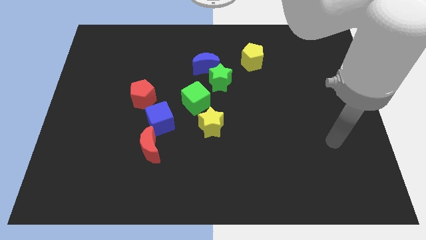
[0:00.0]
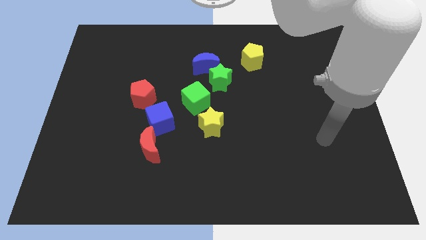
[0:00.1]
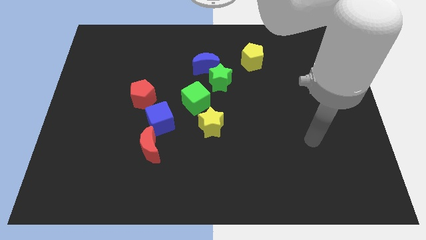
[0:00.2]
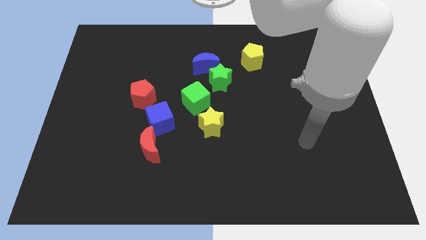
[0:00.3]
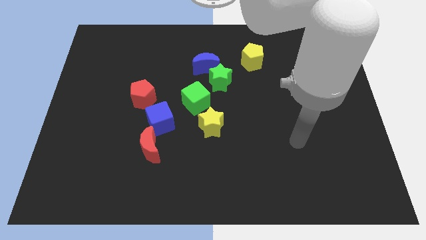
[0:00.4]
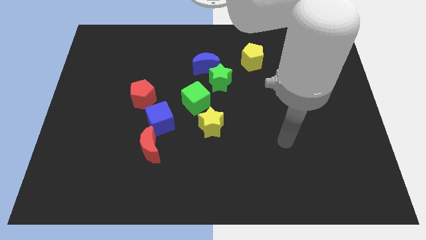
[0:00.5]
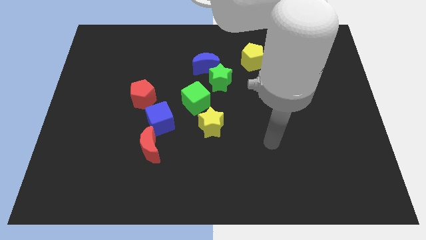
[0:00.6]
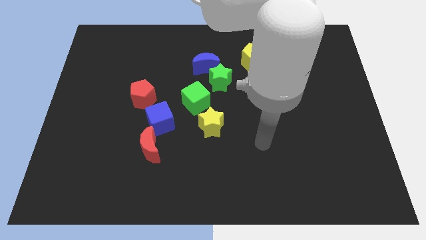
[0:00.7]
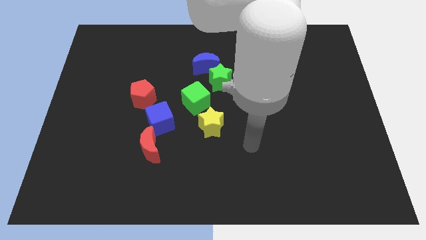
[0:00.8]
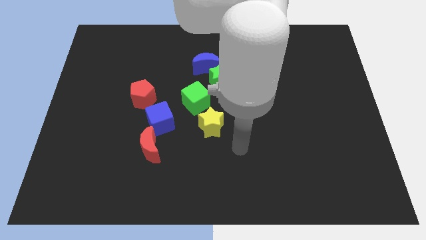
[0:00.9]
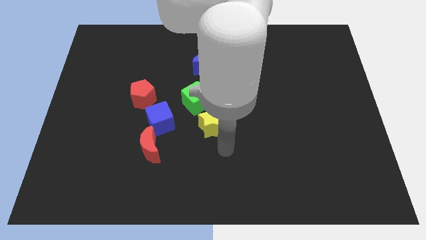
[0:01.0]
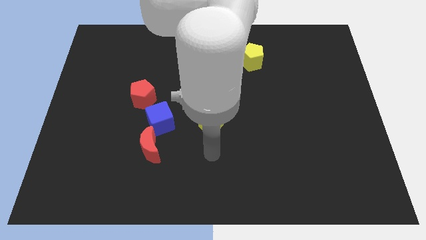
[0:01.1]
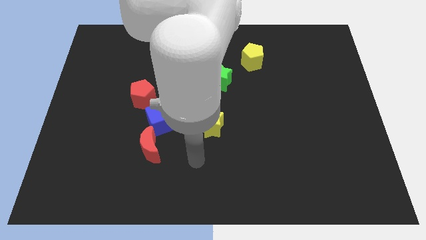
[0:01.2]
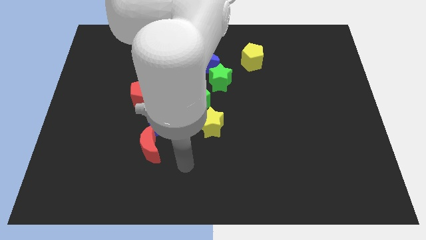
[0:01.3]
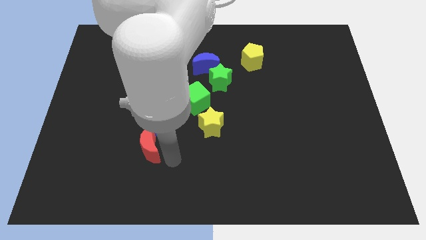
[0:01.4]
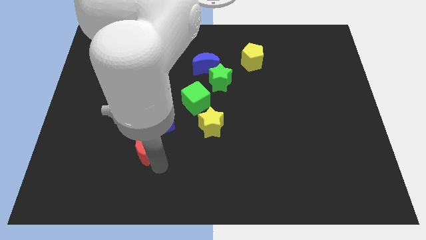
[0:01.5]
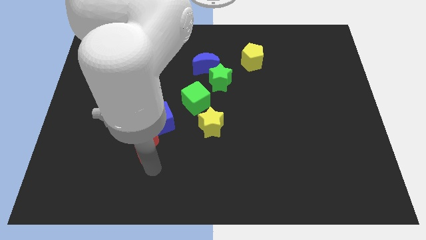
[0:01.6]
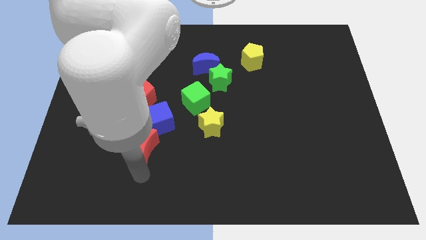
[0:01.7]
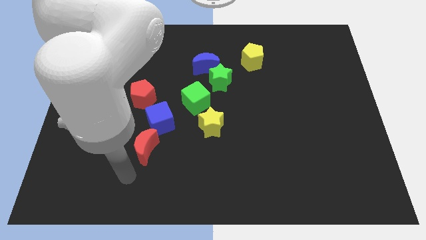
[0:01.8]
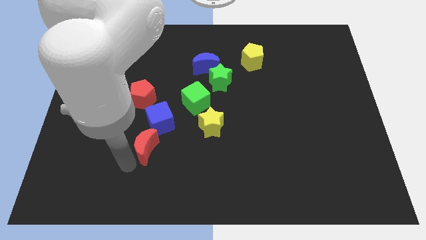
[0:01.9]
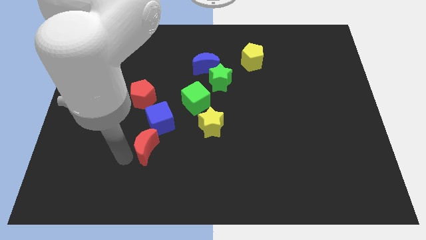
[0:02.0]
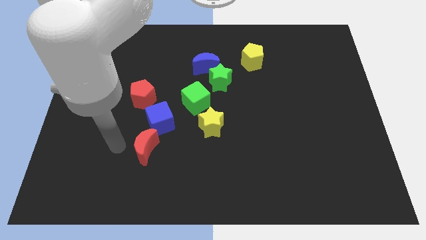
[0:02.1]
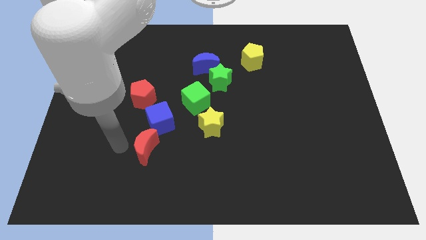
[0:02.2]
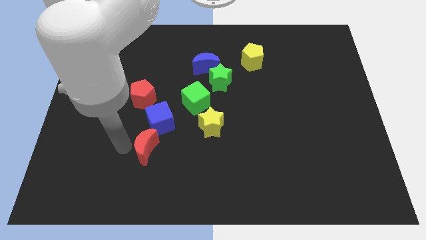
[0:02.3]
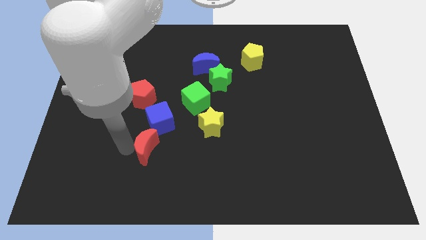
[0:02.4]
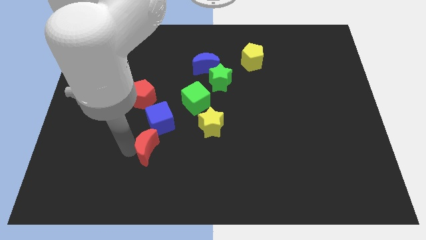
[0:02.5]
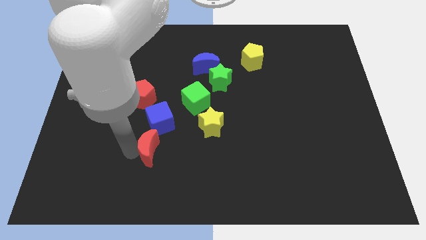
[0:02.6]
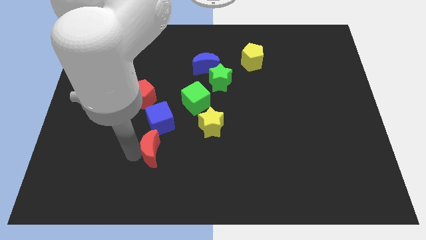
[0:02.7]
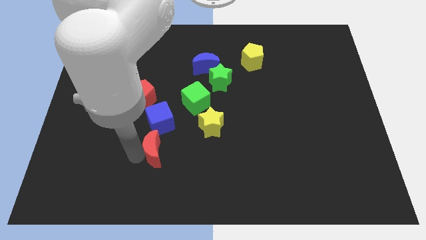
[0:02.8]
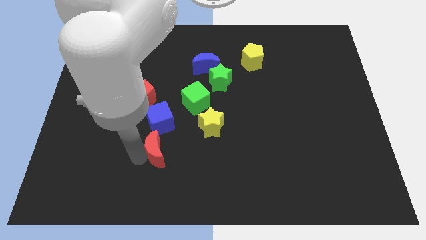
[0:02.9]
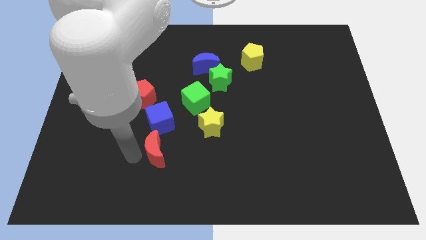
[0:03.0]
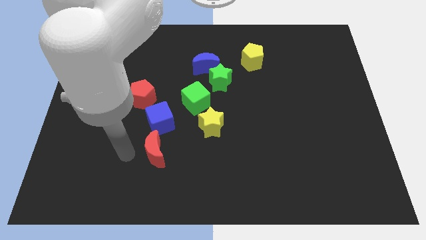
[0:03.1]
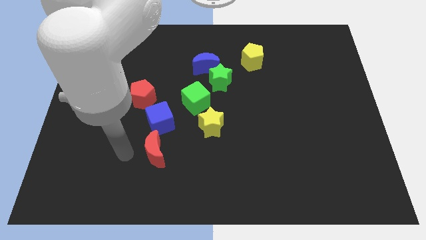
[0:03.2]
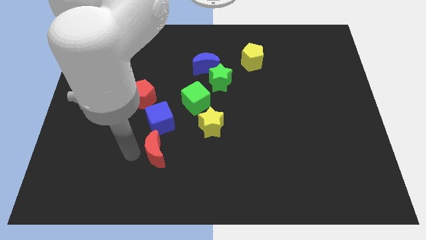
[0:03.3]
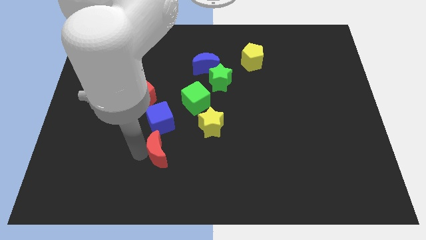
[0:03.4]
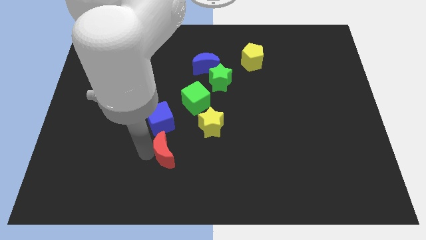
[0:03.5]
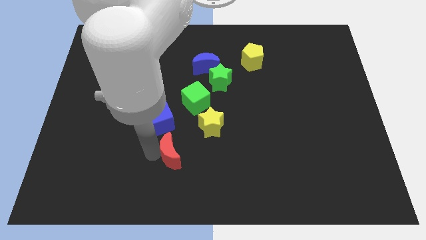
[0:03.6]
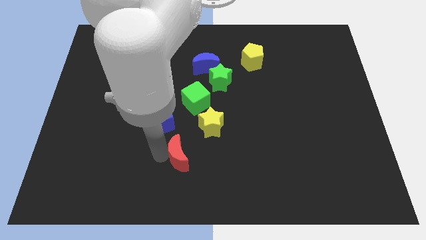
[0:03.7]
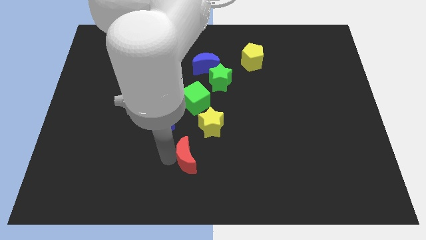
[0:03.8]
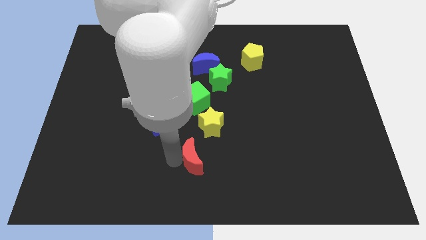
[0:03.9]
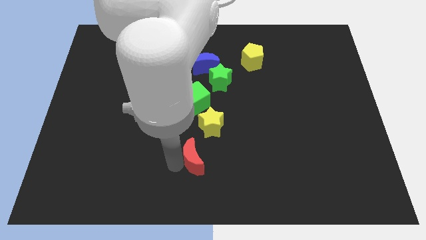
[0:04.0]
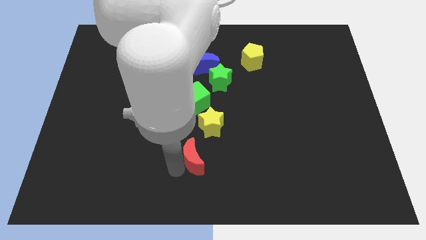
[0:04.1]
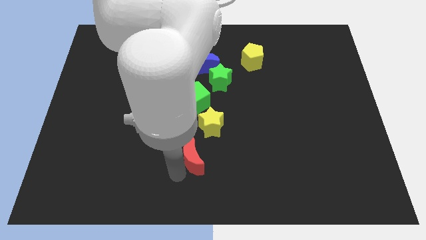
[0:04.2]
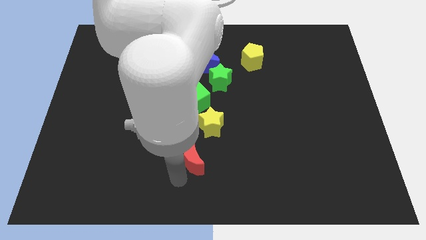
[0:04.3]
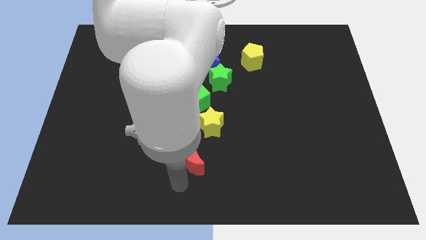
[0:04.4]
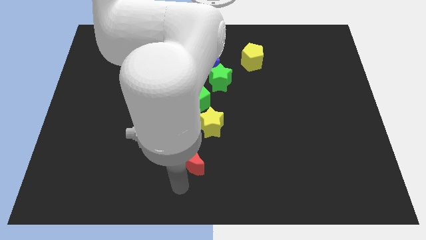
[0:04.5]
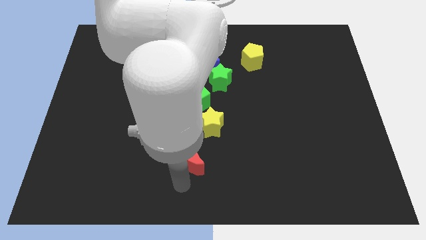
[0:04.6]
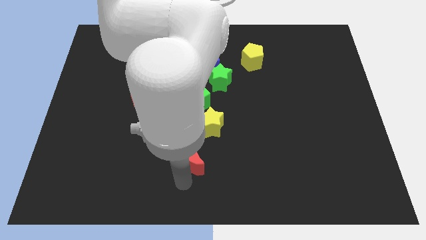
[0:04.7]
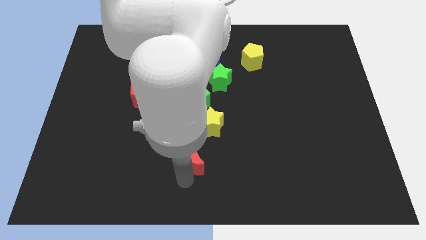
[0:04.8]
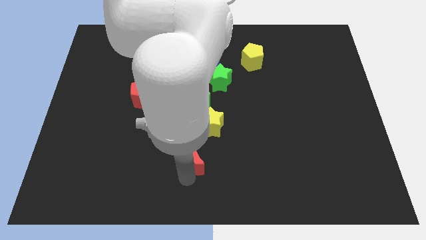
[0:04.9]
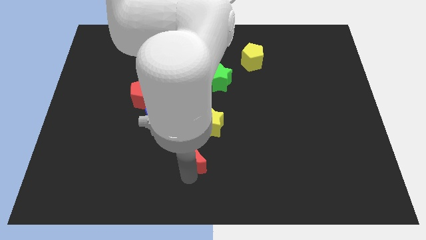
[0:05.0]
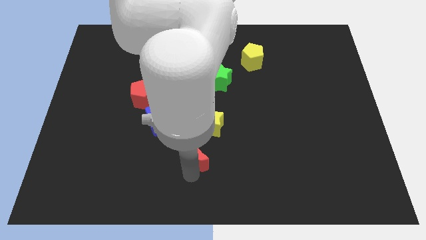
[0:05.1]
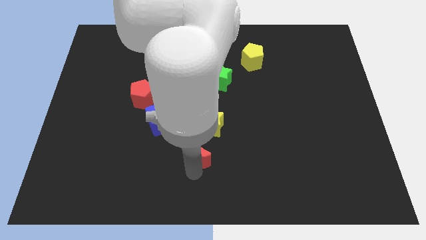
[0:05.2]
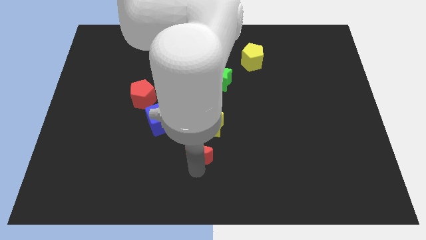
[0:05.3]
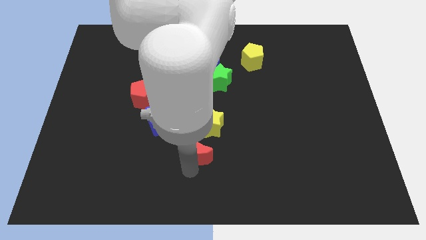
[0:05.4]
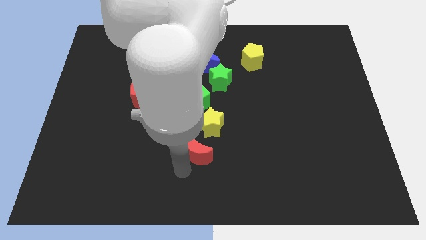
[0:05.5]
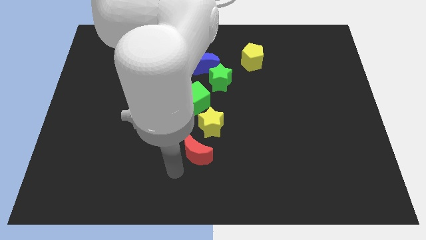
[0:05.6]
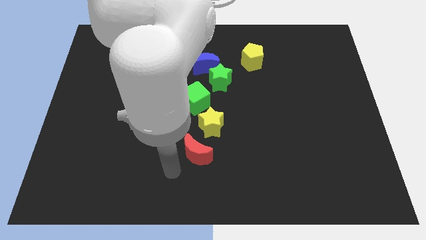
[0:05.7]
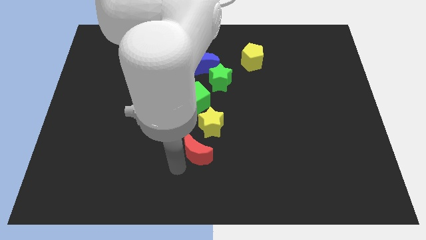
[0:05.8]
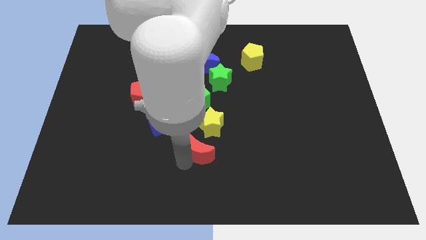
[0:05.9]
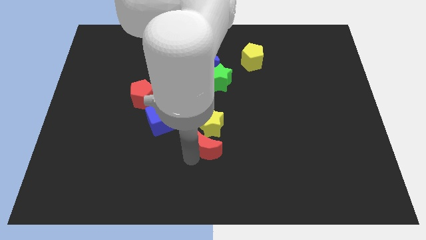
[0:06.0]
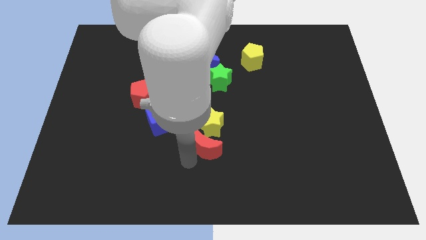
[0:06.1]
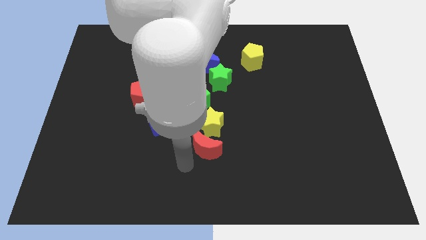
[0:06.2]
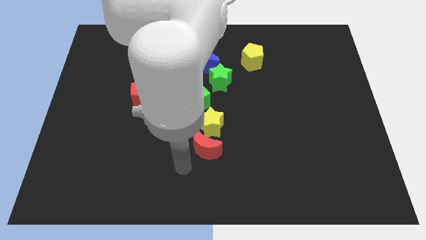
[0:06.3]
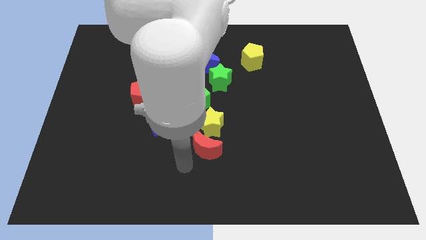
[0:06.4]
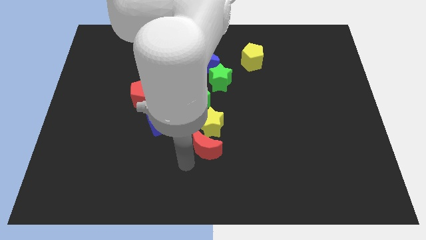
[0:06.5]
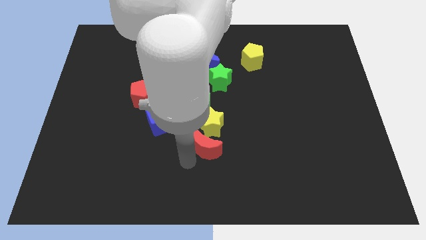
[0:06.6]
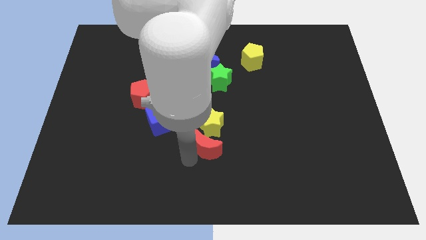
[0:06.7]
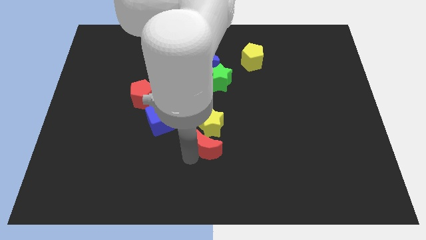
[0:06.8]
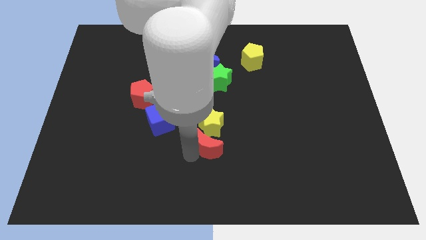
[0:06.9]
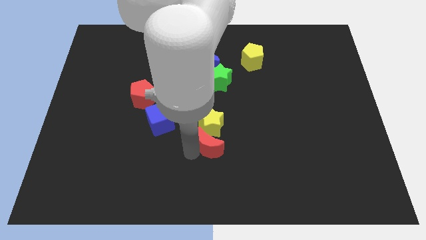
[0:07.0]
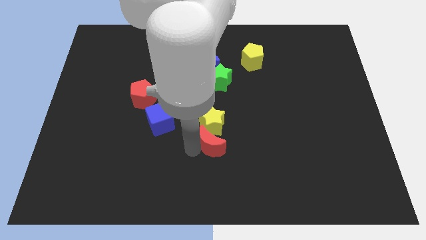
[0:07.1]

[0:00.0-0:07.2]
push the red moon to the middle
